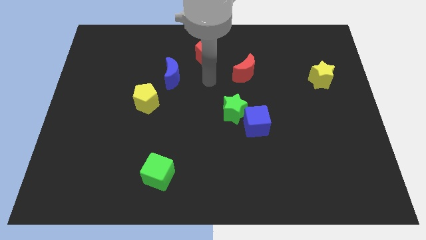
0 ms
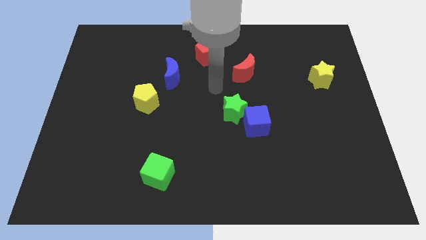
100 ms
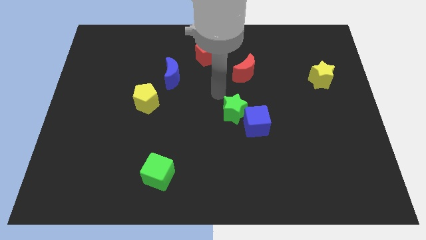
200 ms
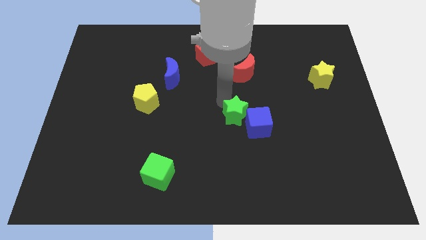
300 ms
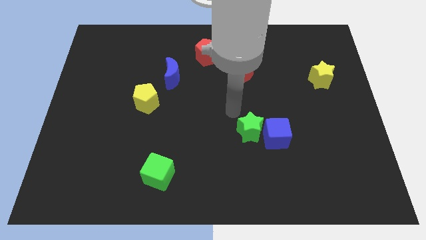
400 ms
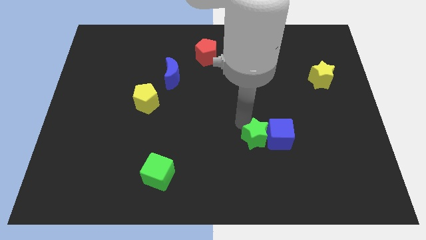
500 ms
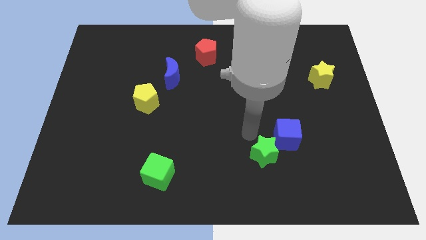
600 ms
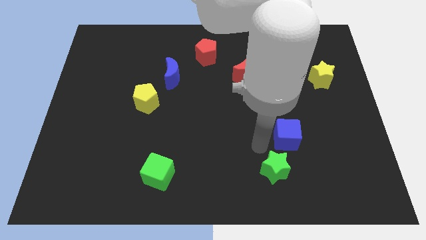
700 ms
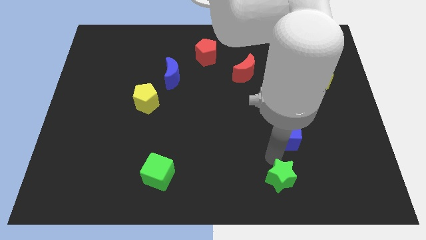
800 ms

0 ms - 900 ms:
pull the blue cube apart from the green star

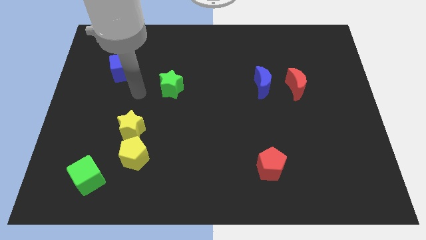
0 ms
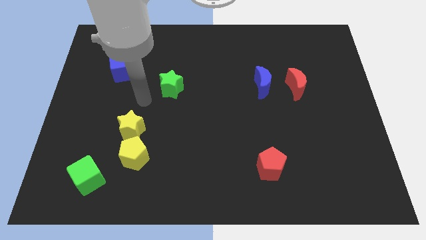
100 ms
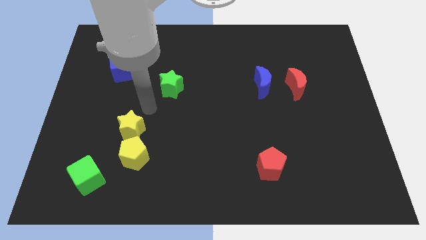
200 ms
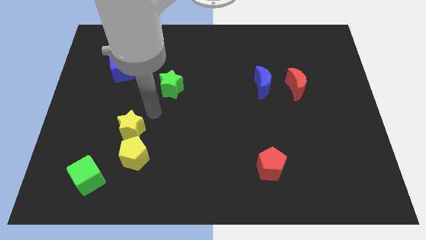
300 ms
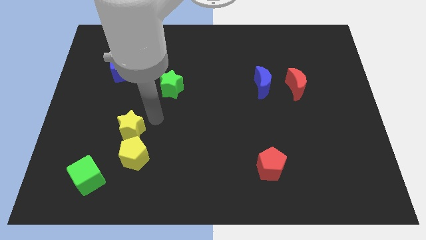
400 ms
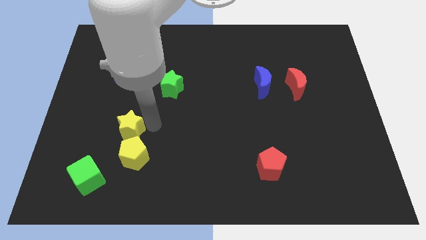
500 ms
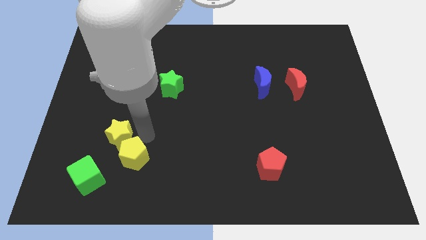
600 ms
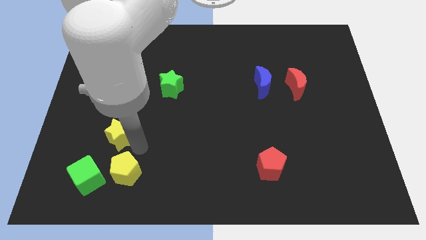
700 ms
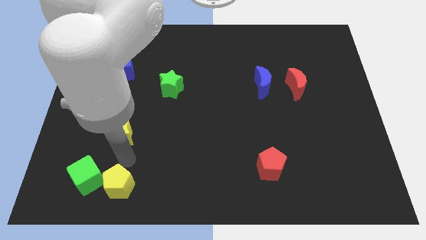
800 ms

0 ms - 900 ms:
separate the yellow star from the yellow pentagon

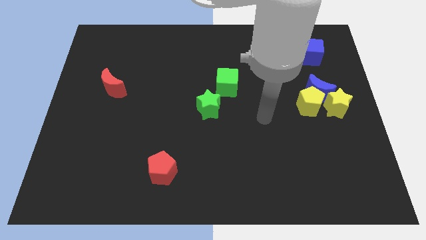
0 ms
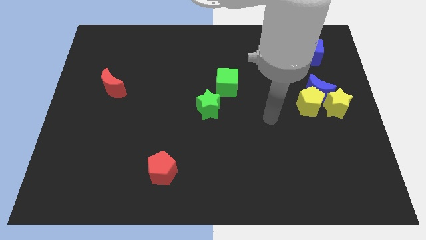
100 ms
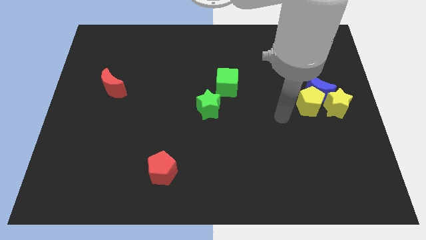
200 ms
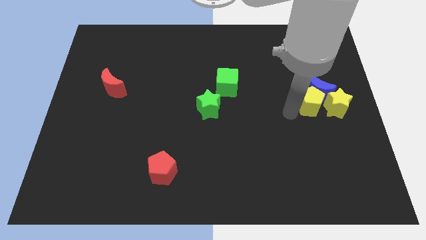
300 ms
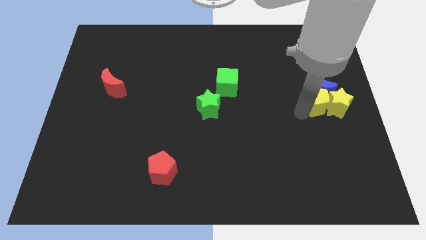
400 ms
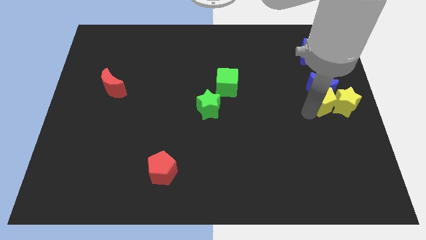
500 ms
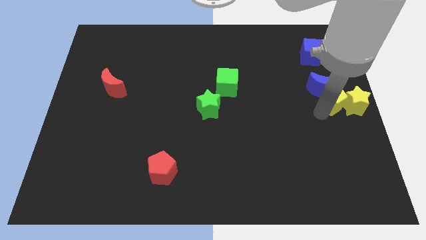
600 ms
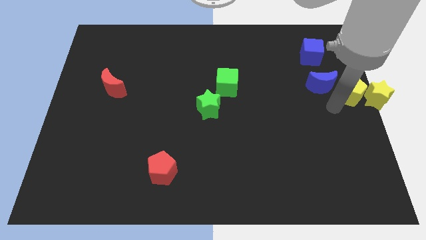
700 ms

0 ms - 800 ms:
pull the blue moon apart from the yellow pentagon and yellow star

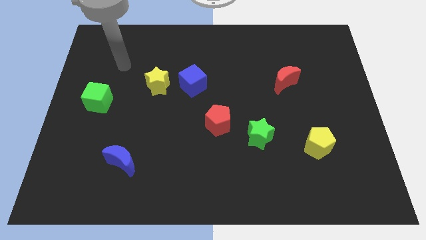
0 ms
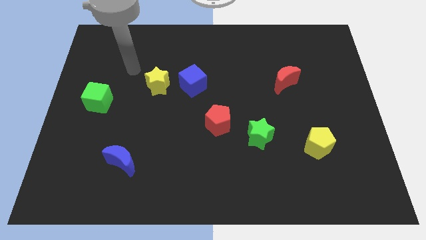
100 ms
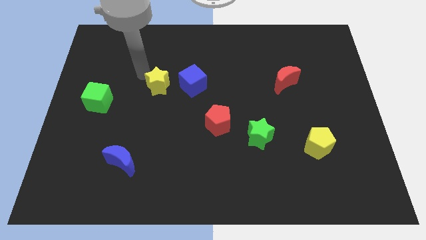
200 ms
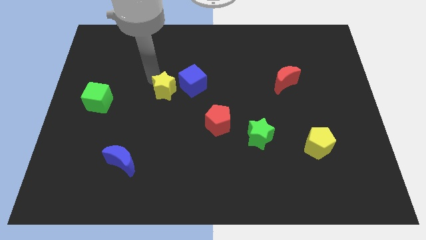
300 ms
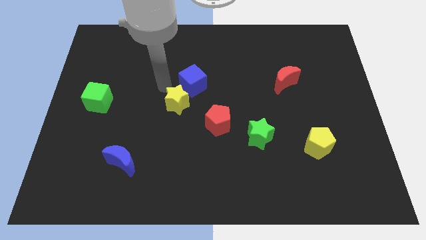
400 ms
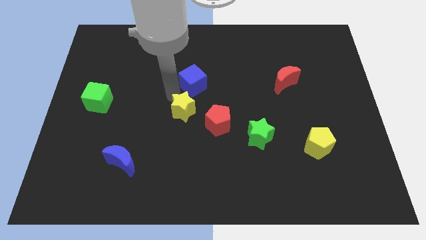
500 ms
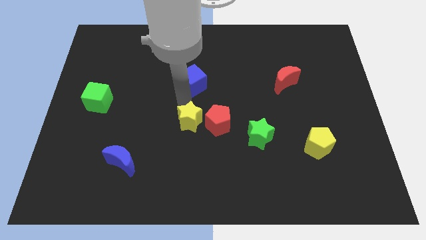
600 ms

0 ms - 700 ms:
move the blue cube away from the yellow star

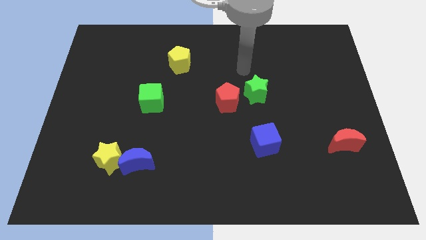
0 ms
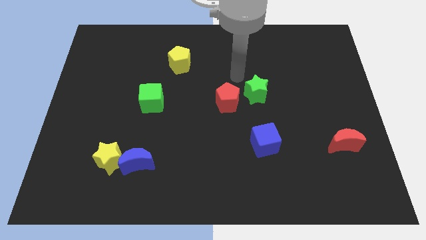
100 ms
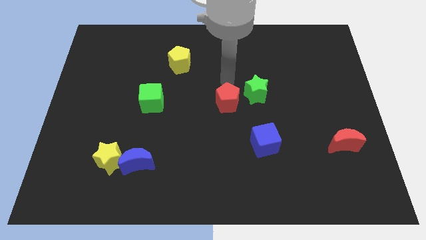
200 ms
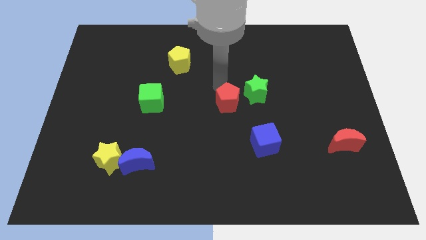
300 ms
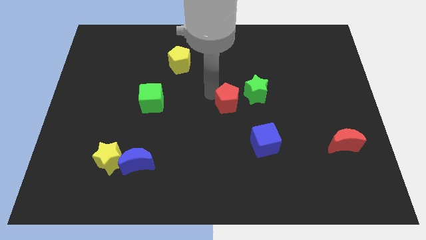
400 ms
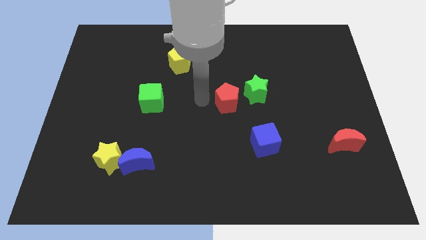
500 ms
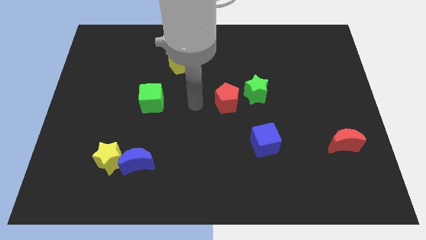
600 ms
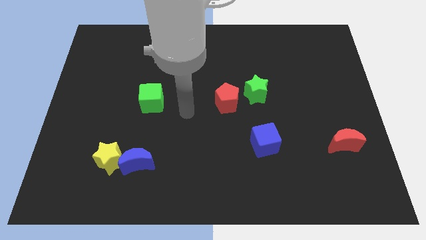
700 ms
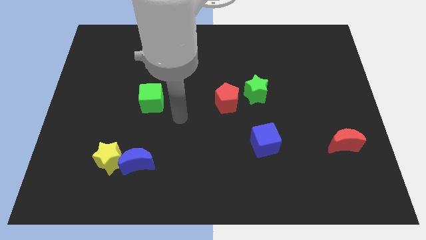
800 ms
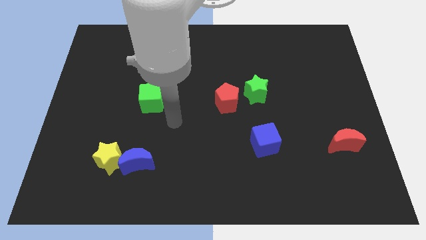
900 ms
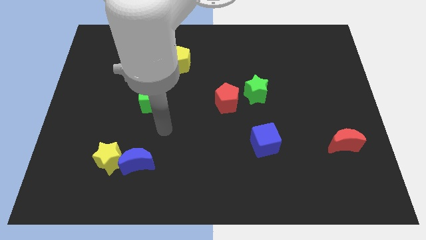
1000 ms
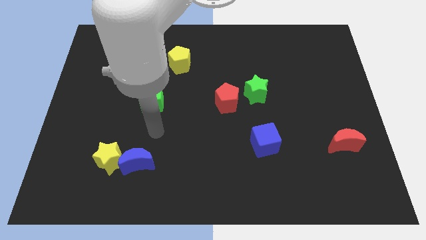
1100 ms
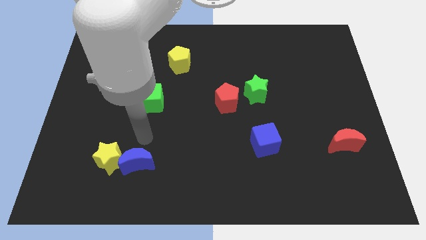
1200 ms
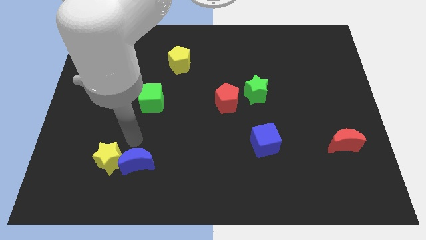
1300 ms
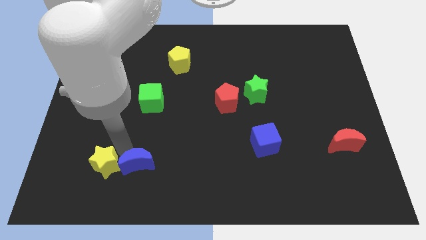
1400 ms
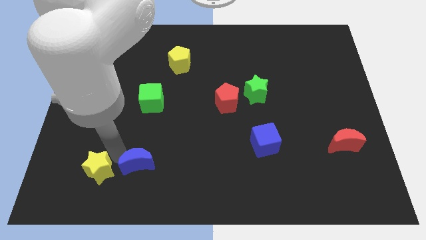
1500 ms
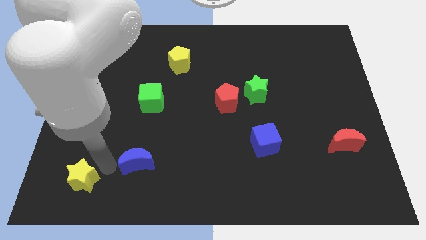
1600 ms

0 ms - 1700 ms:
pull the blue moon apart from the yellow star

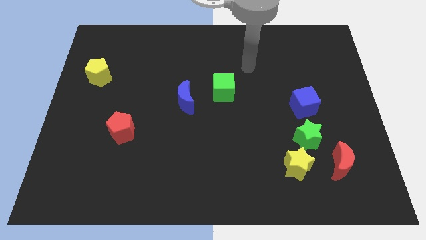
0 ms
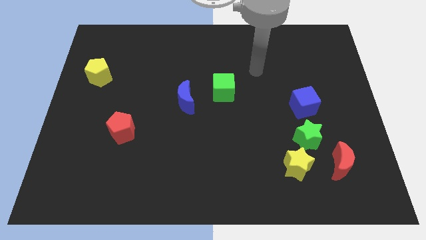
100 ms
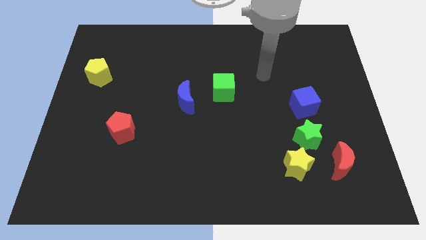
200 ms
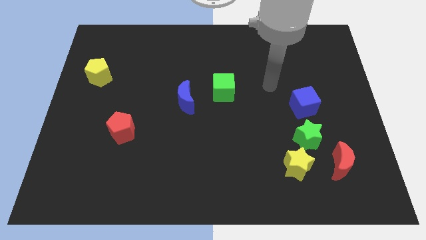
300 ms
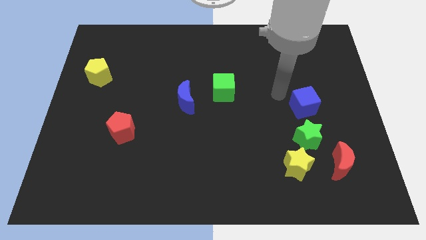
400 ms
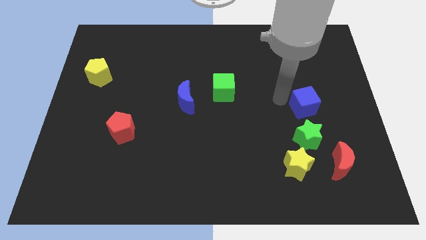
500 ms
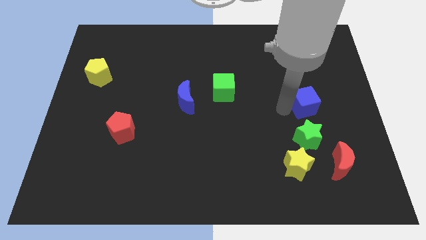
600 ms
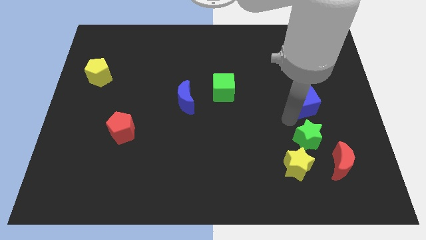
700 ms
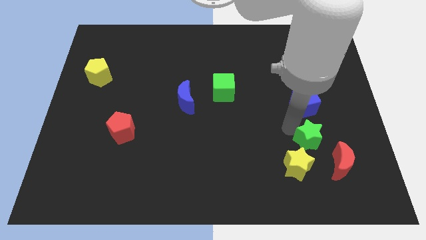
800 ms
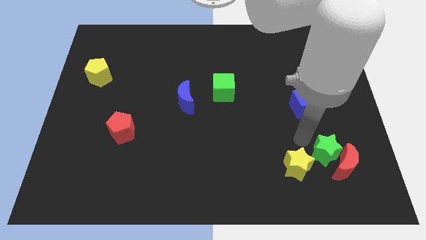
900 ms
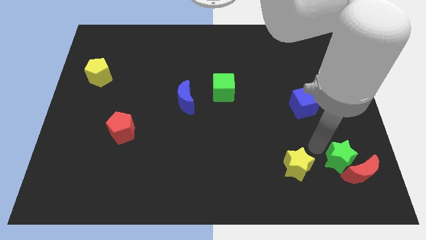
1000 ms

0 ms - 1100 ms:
move the yellow star away from the green star and red moon

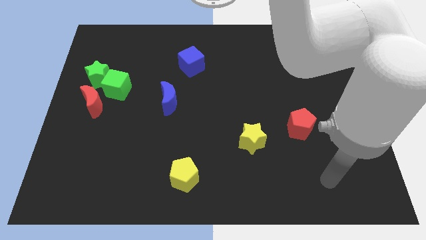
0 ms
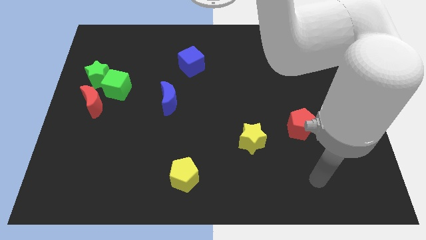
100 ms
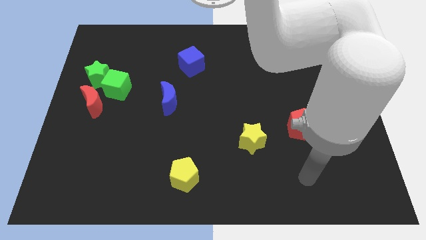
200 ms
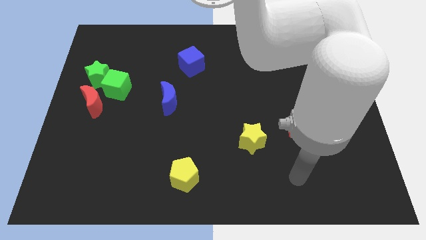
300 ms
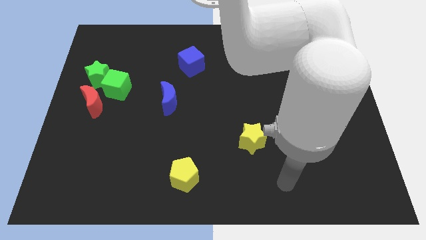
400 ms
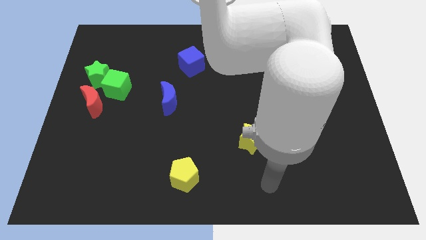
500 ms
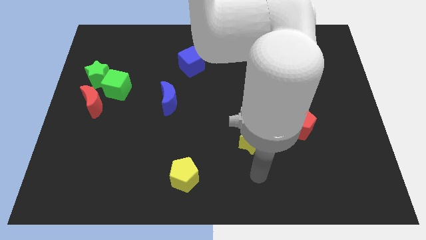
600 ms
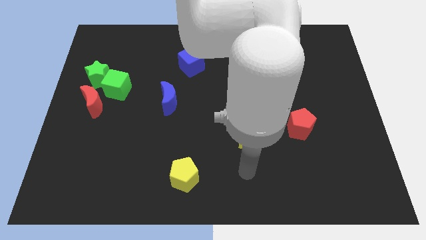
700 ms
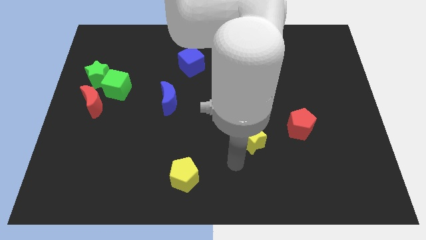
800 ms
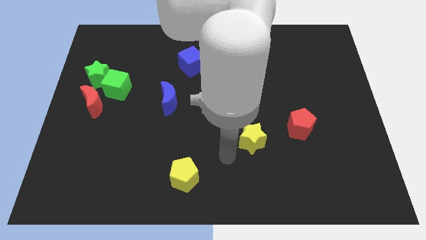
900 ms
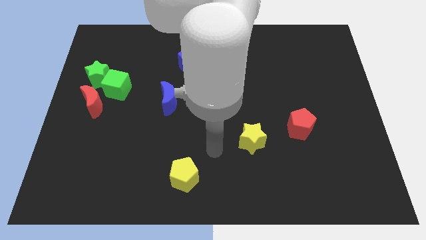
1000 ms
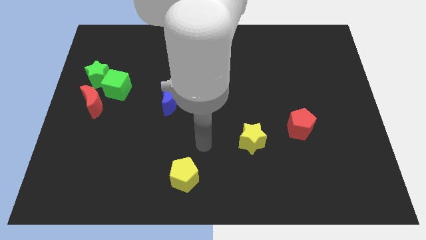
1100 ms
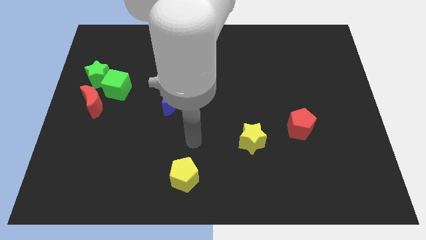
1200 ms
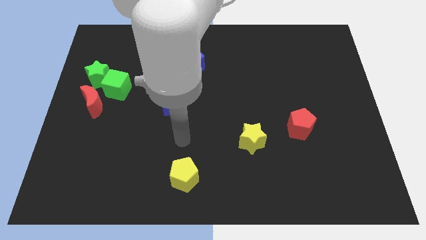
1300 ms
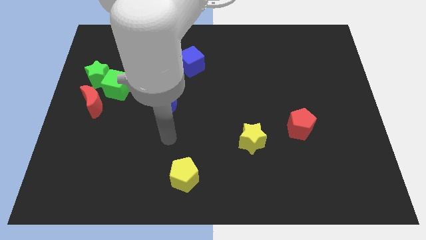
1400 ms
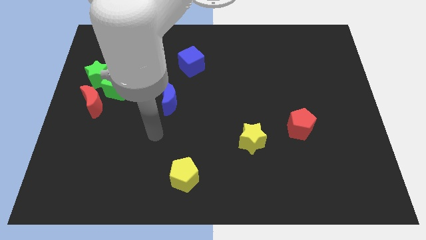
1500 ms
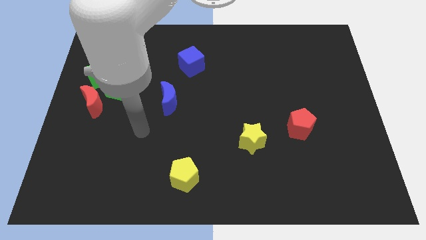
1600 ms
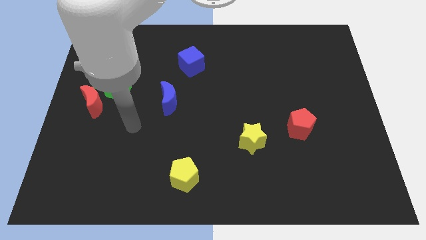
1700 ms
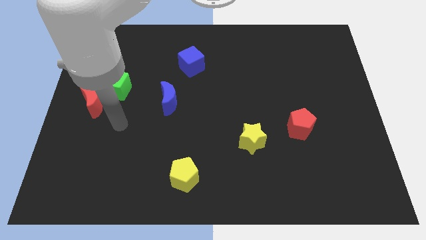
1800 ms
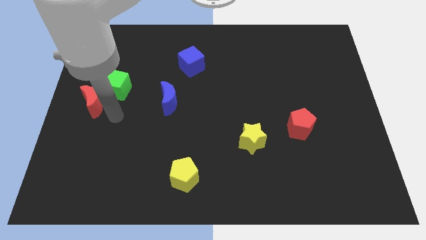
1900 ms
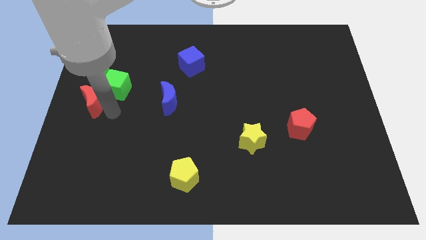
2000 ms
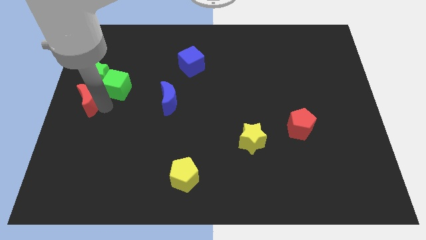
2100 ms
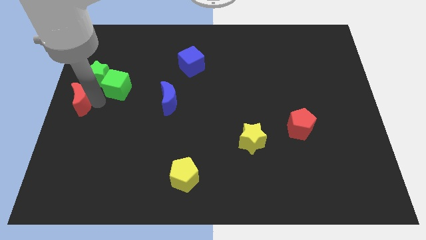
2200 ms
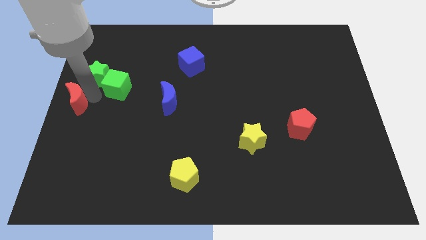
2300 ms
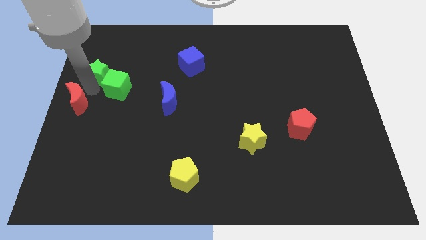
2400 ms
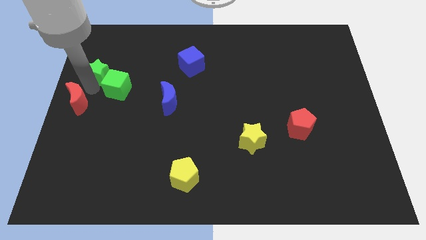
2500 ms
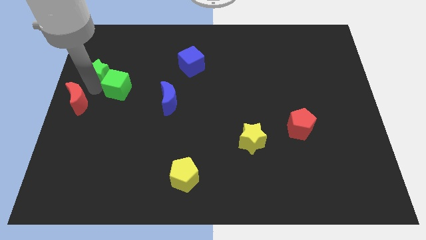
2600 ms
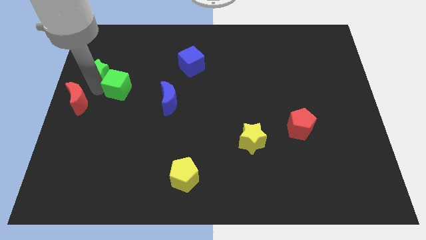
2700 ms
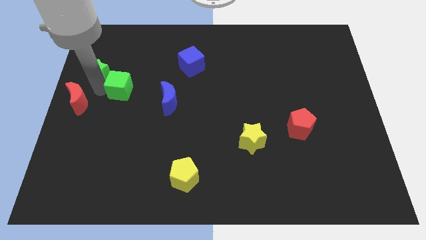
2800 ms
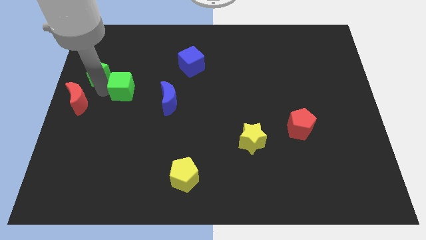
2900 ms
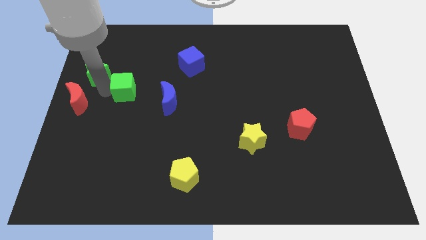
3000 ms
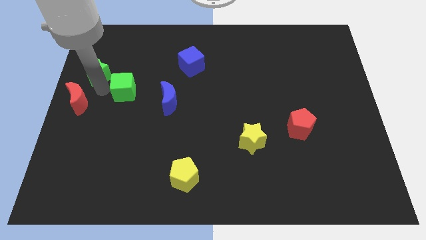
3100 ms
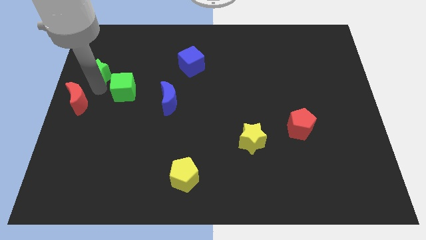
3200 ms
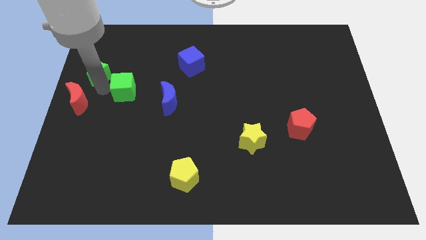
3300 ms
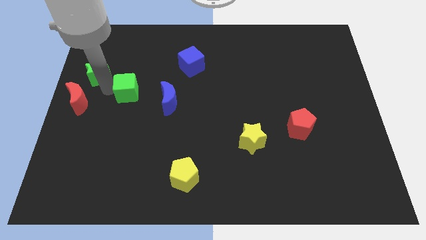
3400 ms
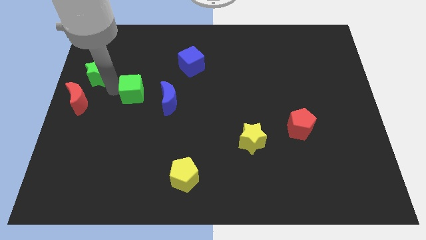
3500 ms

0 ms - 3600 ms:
separate the green cube from the green star and red moon
